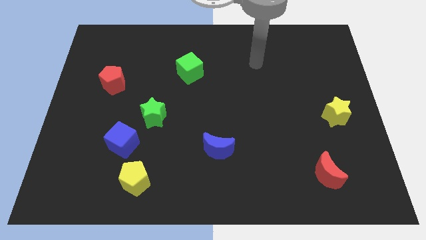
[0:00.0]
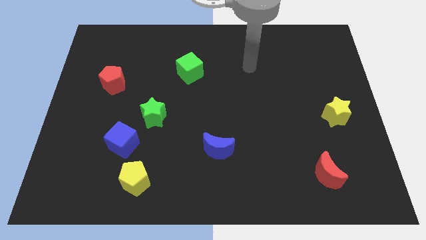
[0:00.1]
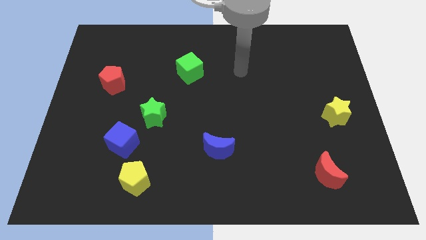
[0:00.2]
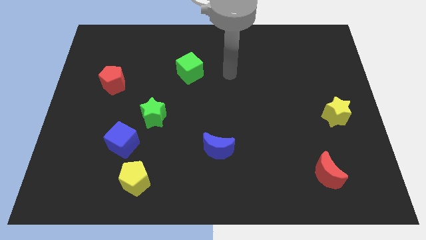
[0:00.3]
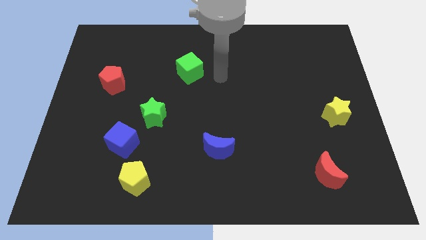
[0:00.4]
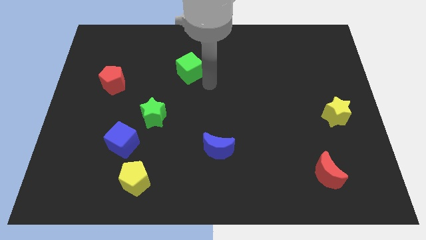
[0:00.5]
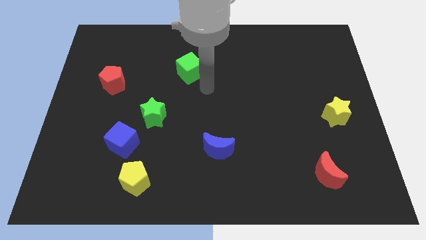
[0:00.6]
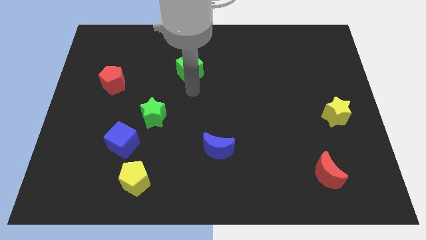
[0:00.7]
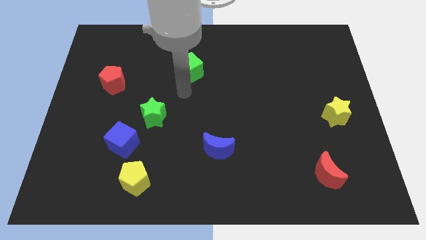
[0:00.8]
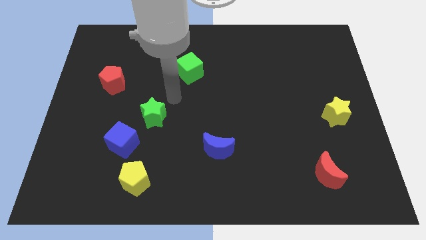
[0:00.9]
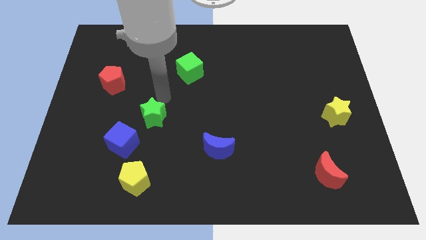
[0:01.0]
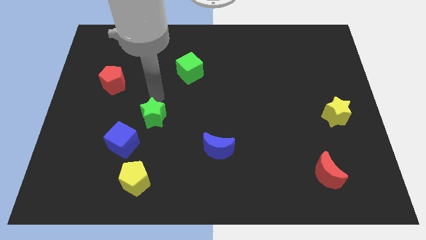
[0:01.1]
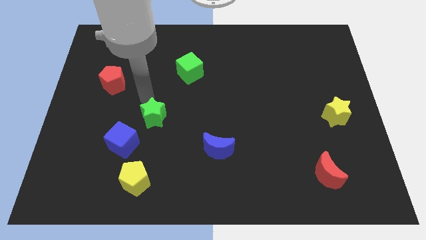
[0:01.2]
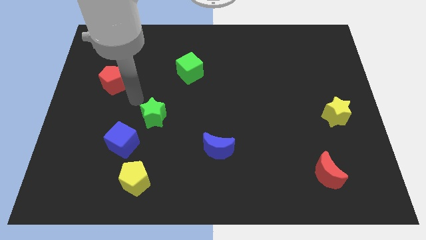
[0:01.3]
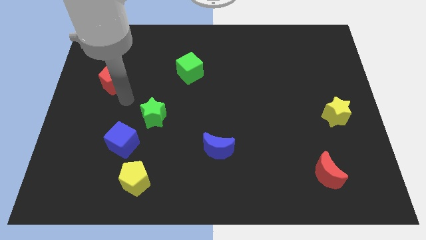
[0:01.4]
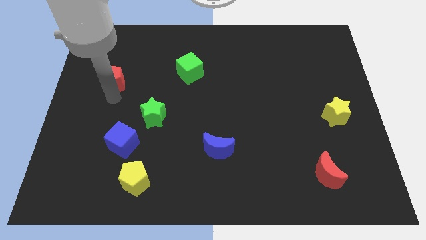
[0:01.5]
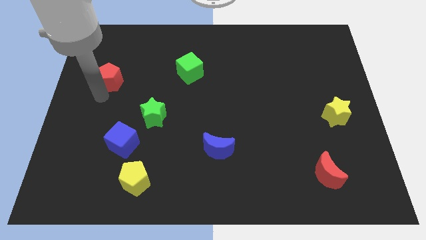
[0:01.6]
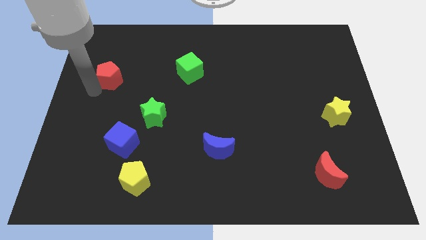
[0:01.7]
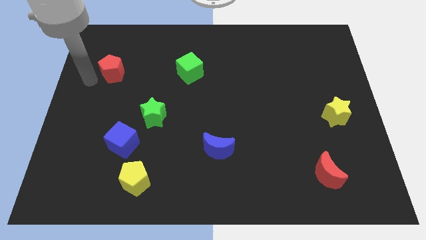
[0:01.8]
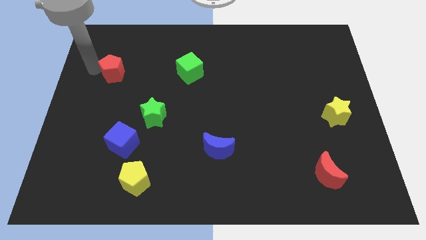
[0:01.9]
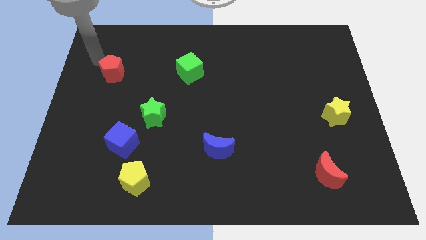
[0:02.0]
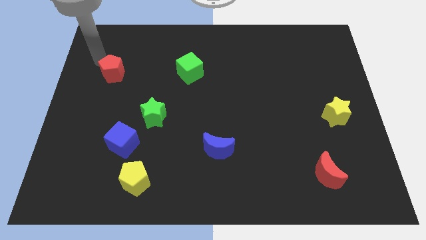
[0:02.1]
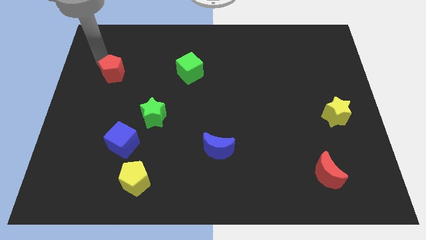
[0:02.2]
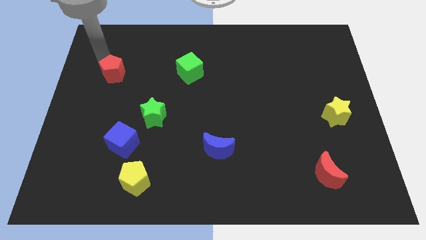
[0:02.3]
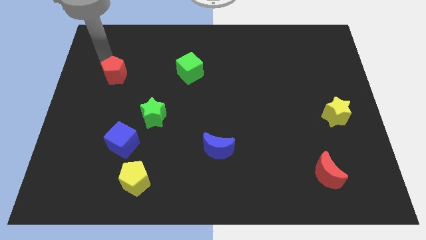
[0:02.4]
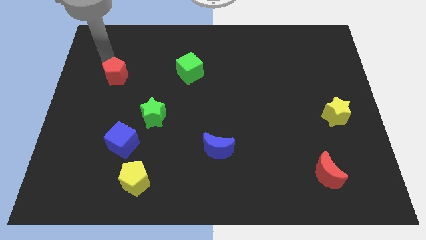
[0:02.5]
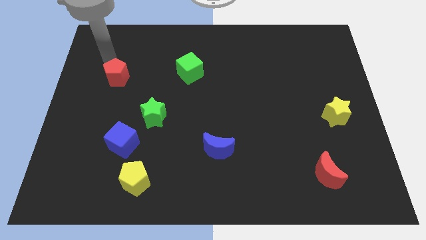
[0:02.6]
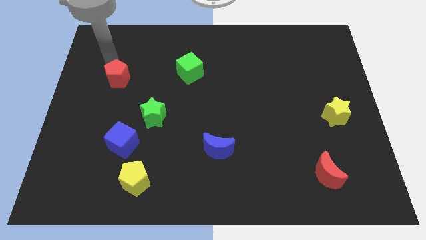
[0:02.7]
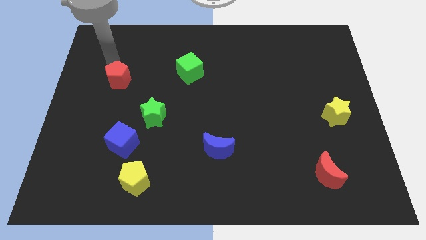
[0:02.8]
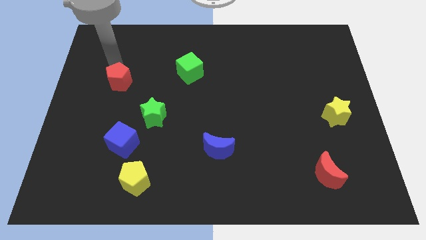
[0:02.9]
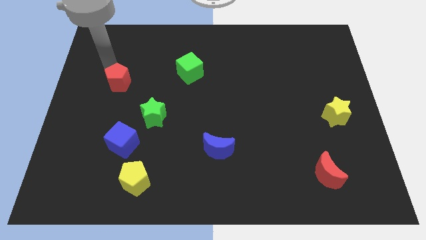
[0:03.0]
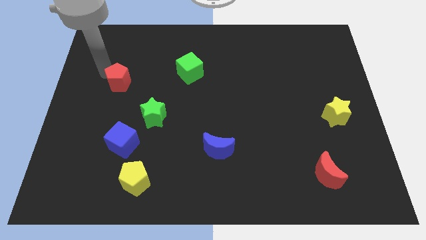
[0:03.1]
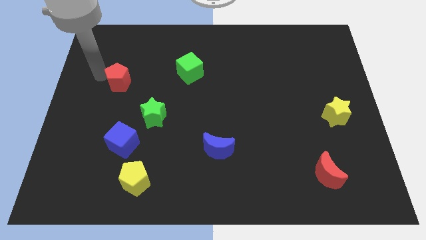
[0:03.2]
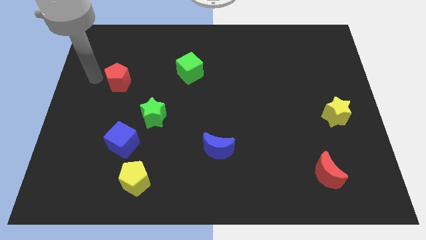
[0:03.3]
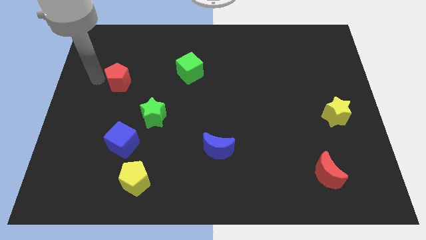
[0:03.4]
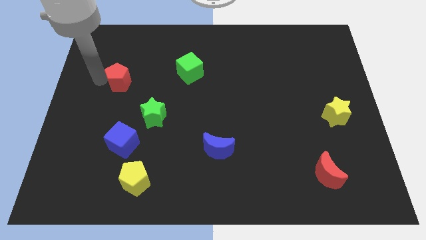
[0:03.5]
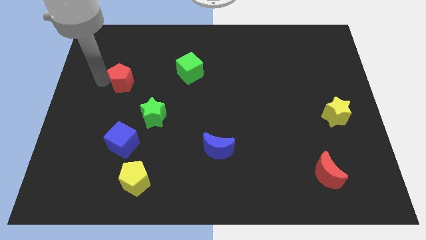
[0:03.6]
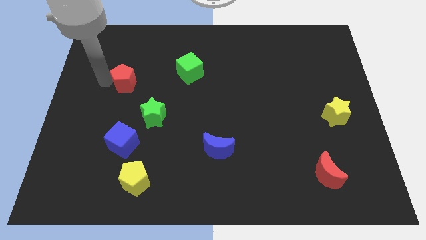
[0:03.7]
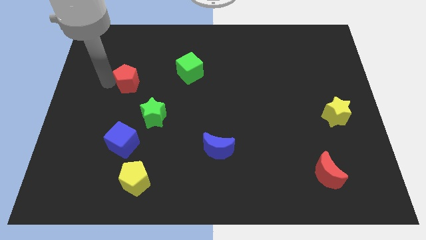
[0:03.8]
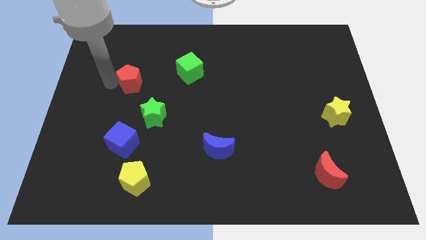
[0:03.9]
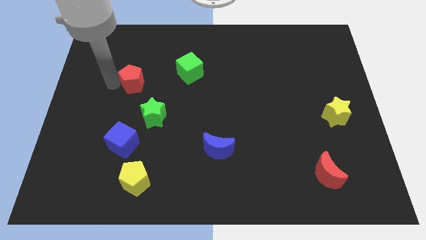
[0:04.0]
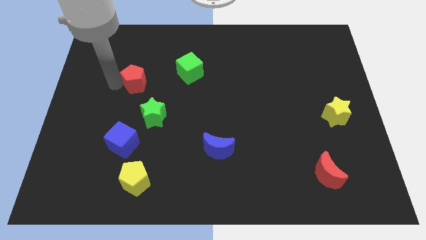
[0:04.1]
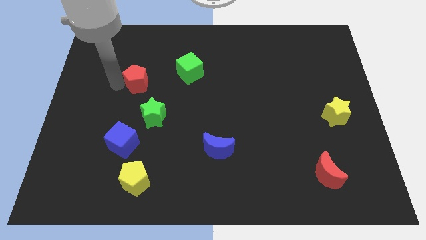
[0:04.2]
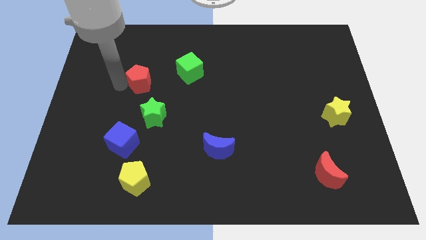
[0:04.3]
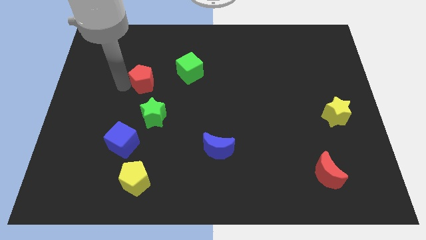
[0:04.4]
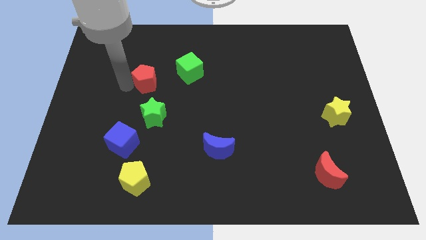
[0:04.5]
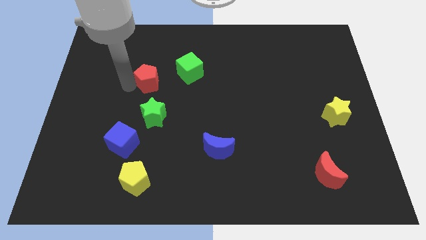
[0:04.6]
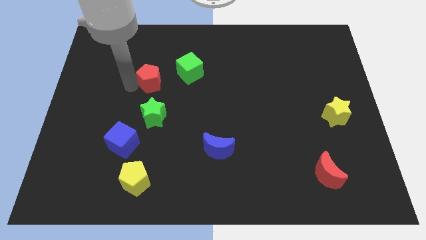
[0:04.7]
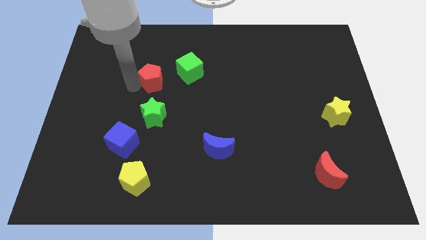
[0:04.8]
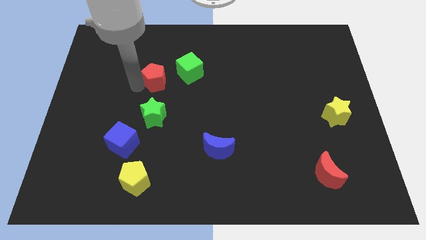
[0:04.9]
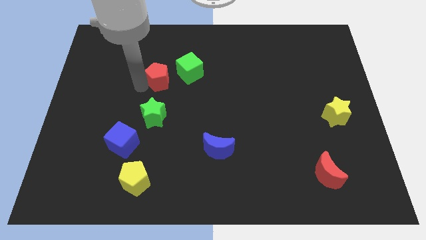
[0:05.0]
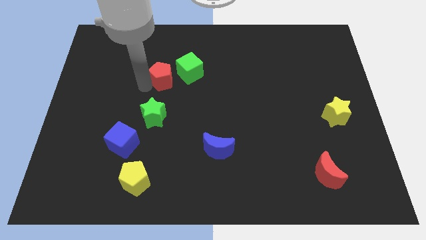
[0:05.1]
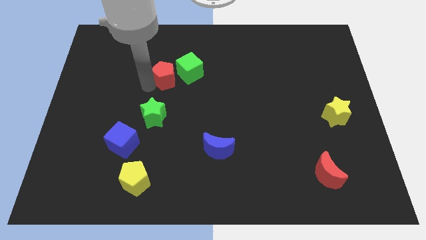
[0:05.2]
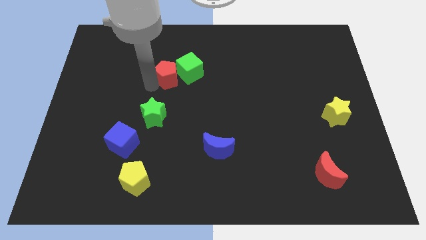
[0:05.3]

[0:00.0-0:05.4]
slide the red pentagon close to the green cube

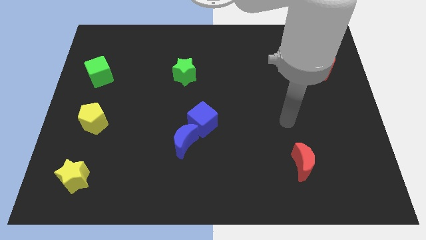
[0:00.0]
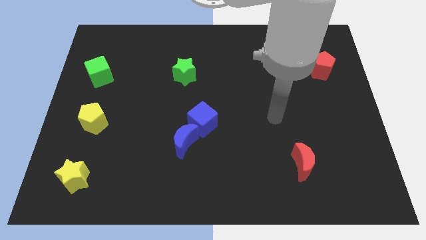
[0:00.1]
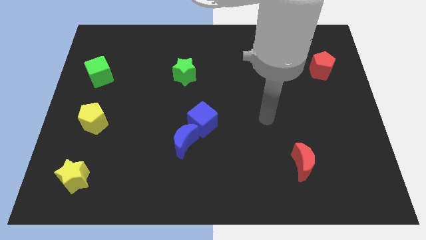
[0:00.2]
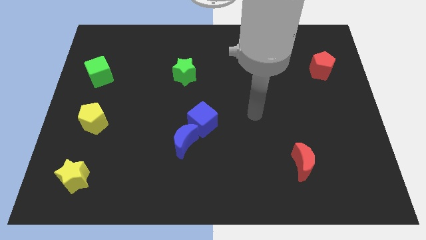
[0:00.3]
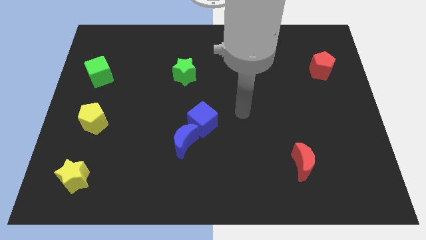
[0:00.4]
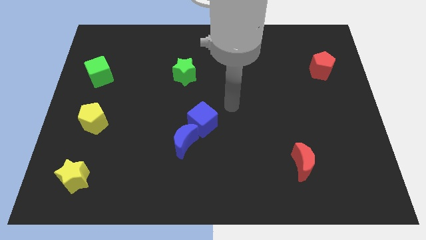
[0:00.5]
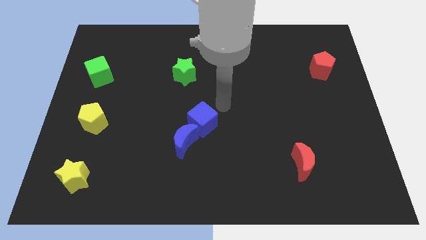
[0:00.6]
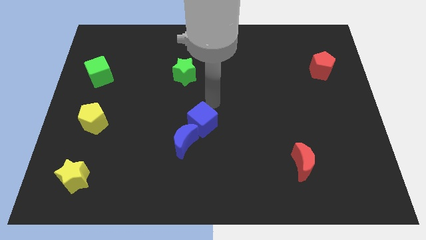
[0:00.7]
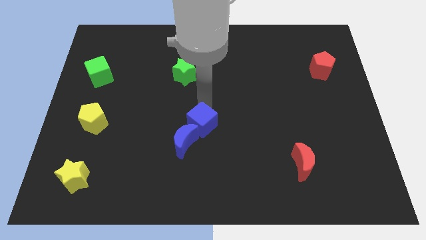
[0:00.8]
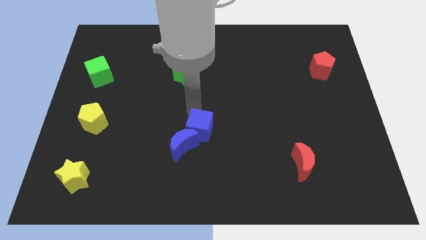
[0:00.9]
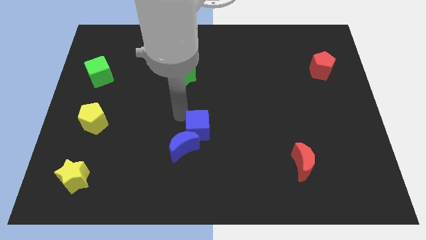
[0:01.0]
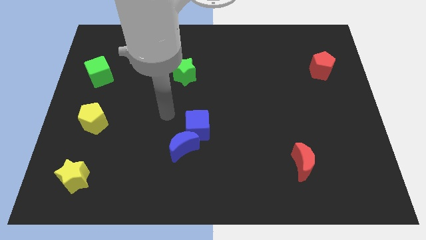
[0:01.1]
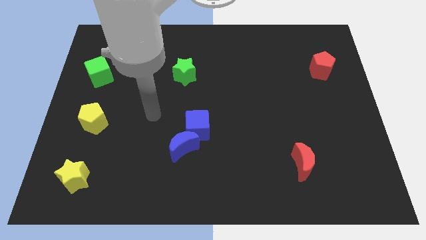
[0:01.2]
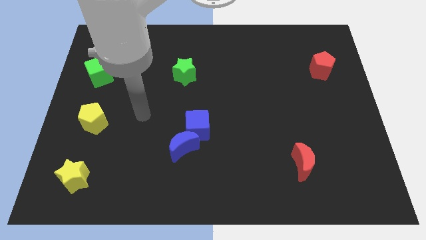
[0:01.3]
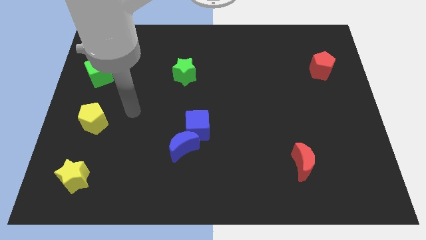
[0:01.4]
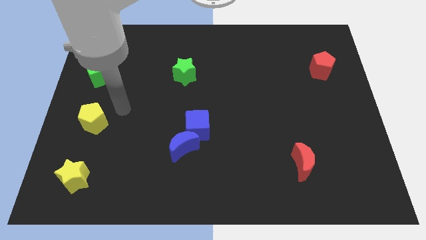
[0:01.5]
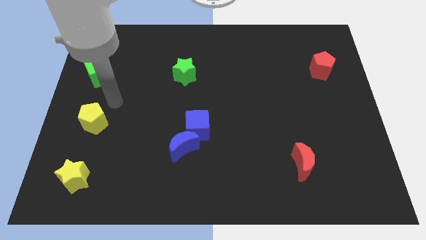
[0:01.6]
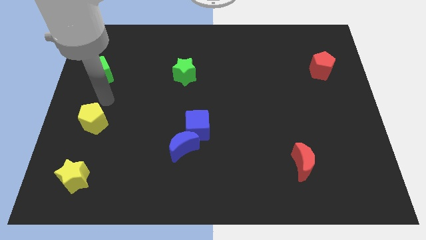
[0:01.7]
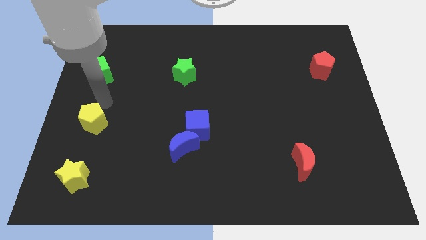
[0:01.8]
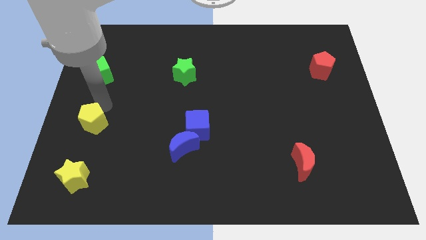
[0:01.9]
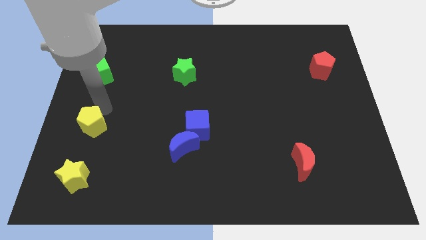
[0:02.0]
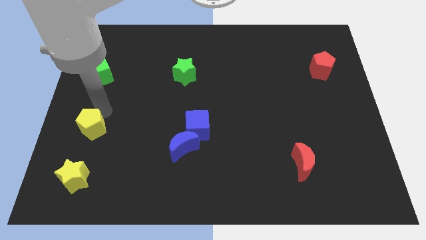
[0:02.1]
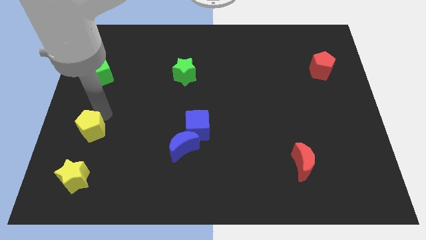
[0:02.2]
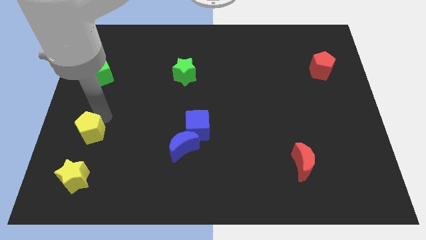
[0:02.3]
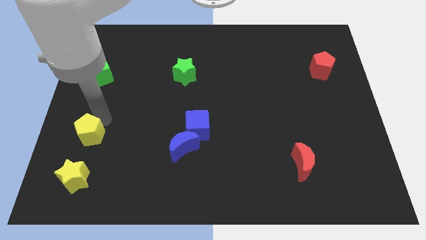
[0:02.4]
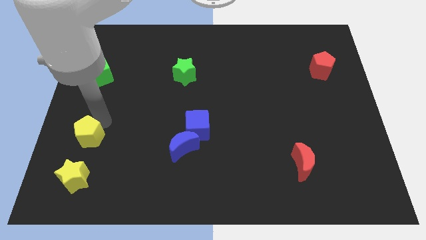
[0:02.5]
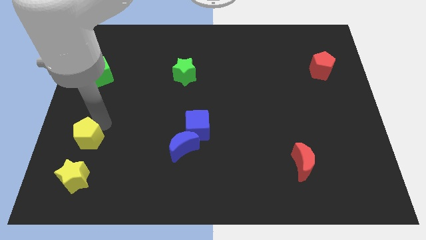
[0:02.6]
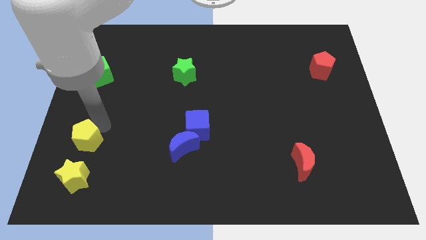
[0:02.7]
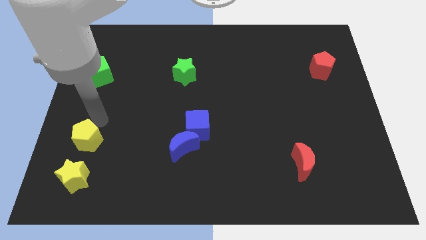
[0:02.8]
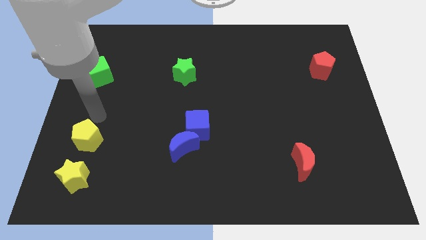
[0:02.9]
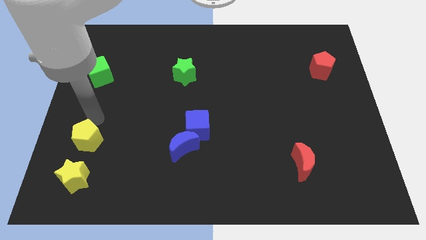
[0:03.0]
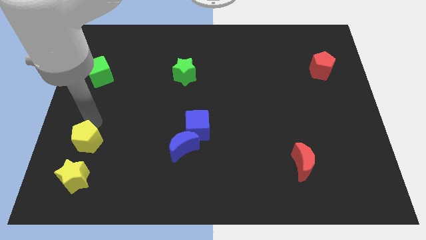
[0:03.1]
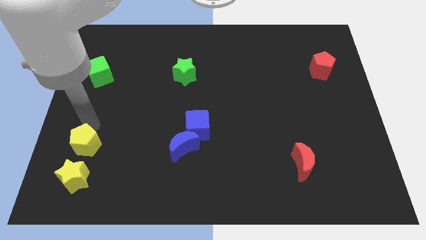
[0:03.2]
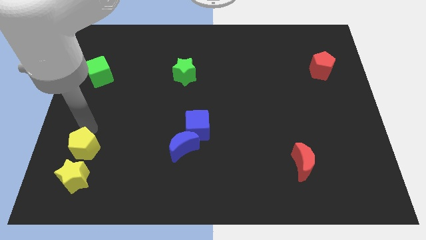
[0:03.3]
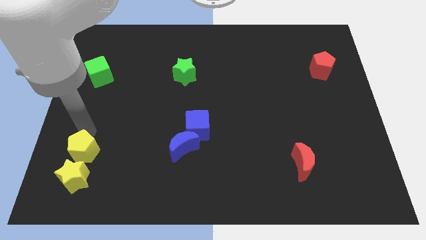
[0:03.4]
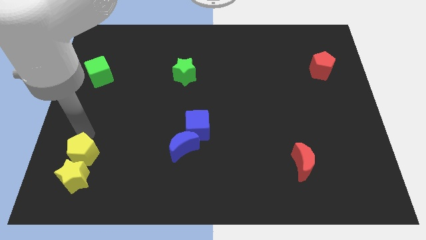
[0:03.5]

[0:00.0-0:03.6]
put the yellow pentagon next to the yellow star
